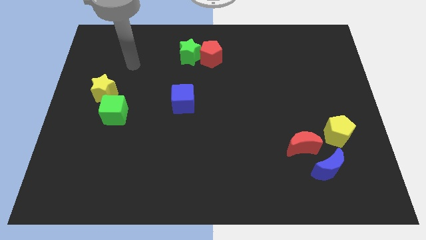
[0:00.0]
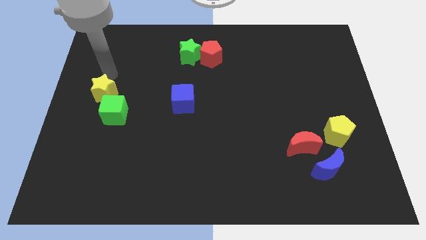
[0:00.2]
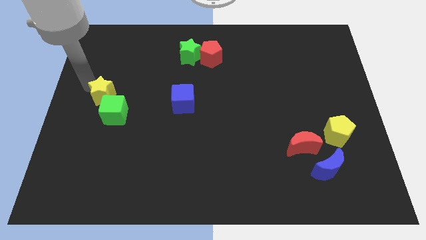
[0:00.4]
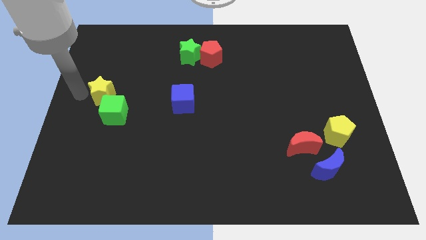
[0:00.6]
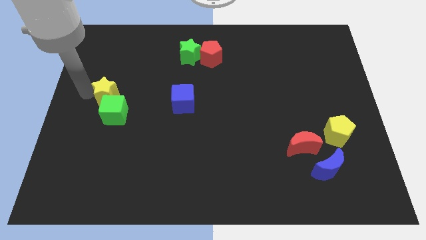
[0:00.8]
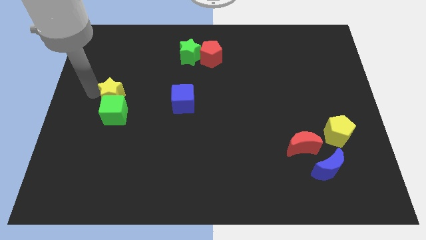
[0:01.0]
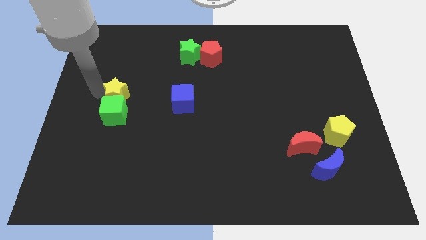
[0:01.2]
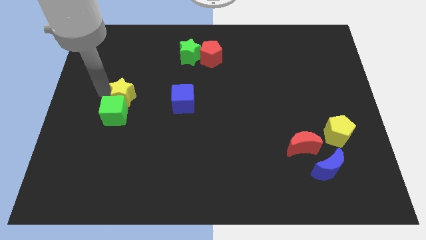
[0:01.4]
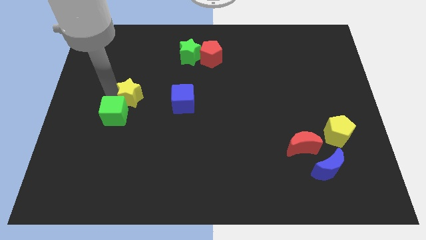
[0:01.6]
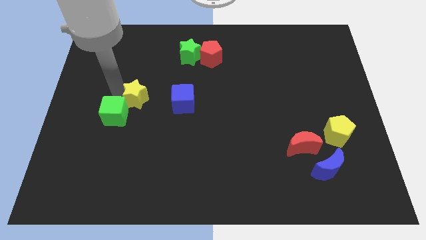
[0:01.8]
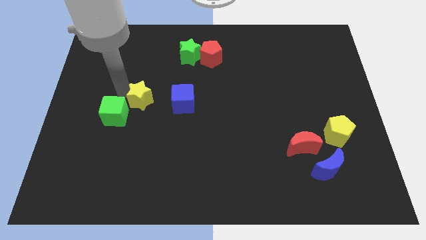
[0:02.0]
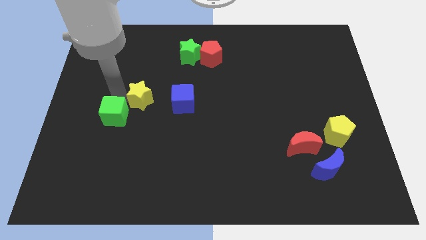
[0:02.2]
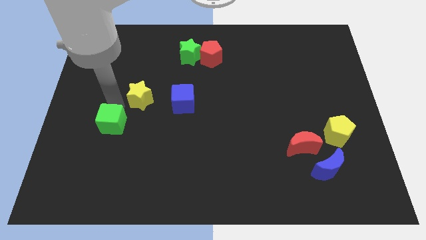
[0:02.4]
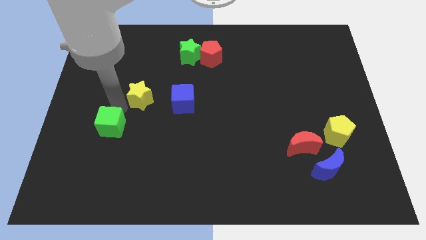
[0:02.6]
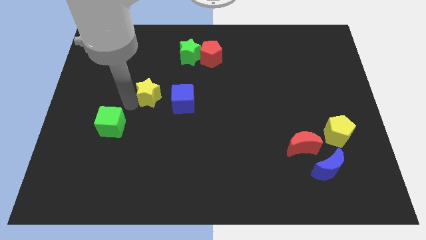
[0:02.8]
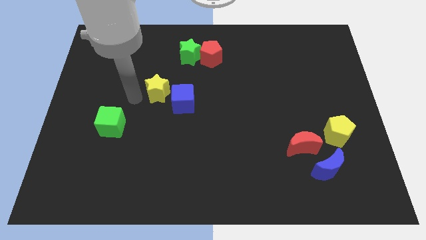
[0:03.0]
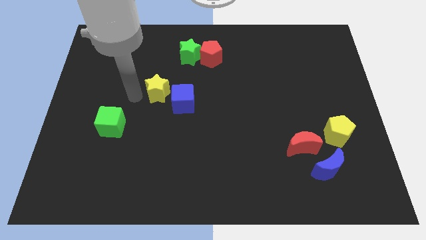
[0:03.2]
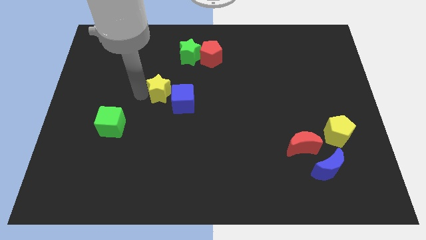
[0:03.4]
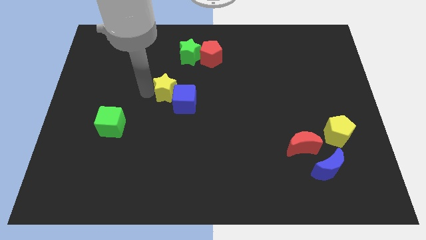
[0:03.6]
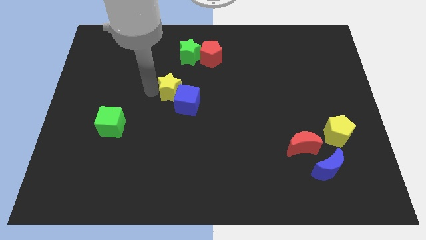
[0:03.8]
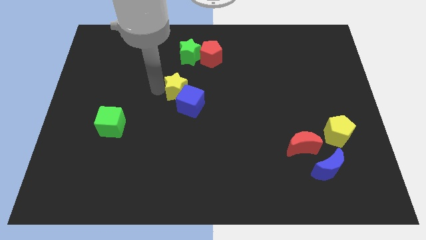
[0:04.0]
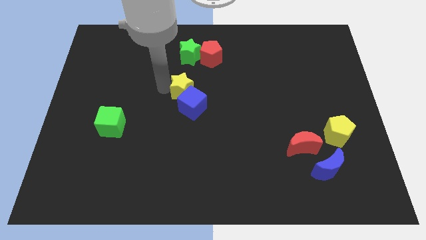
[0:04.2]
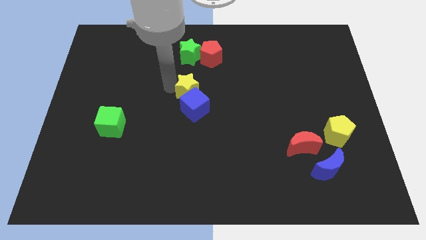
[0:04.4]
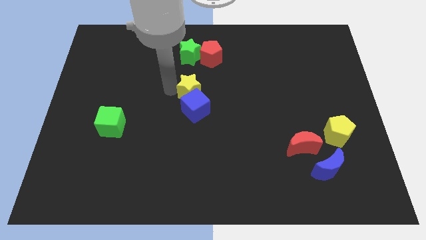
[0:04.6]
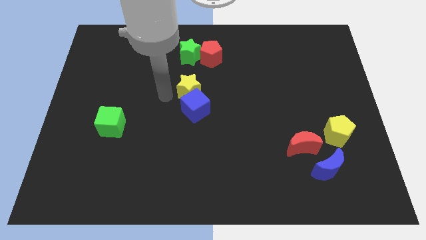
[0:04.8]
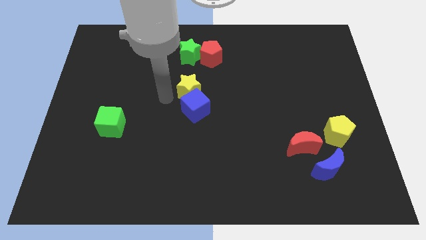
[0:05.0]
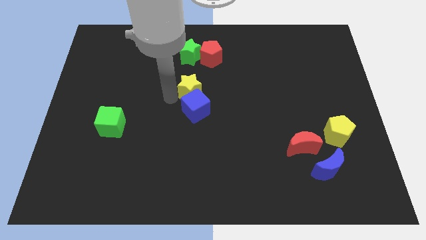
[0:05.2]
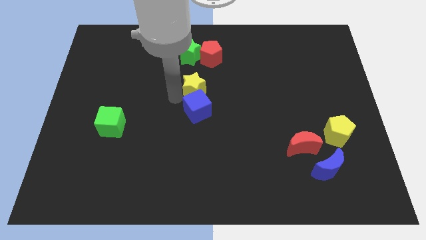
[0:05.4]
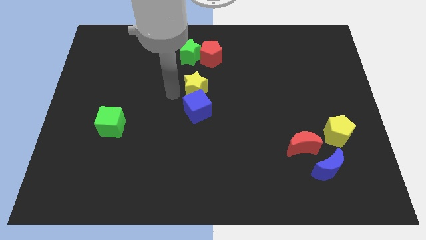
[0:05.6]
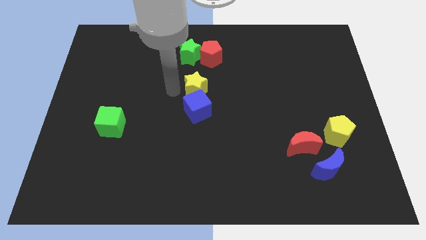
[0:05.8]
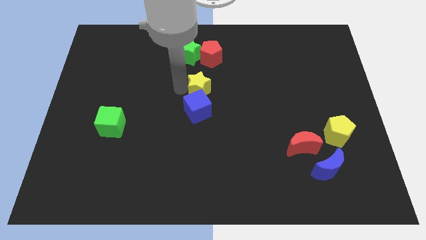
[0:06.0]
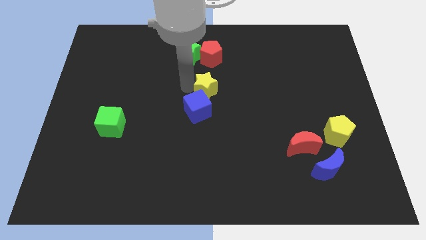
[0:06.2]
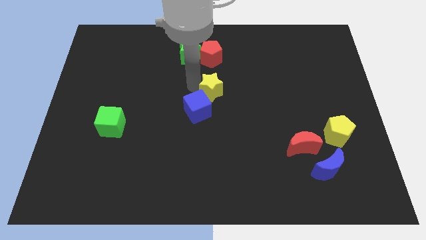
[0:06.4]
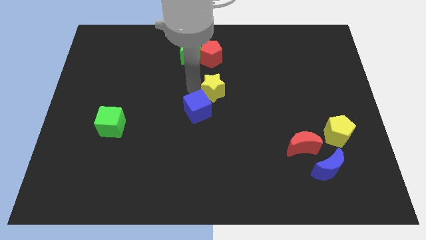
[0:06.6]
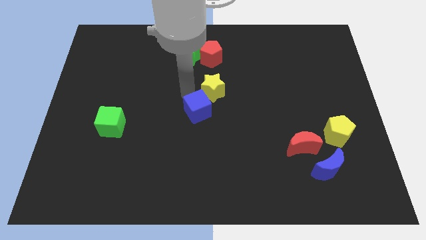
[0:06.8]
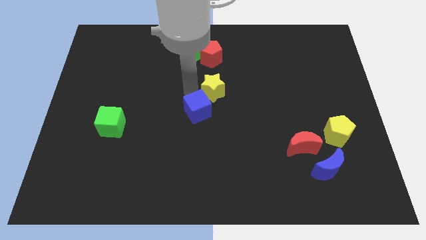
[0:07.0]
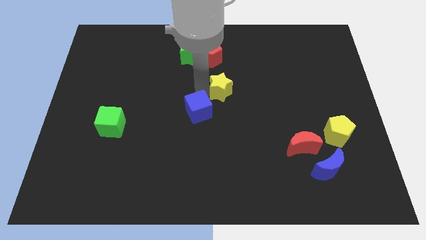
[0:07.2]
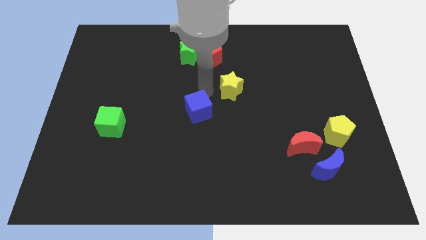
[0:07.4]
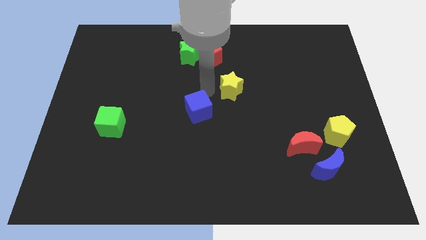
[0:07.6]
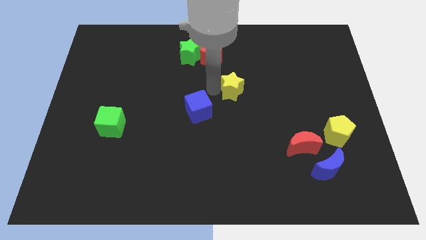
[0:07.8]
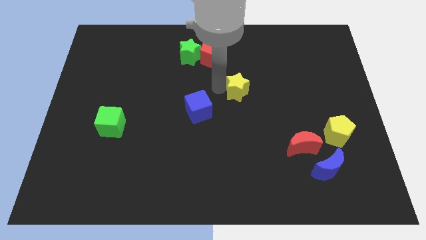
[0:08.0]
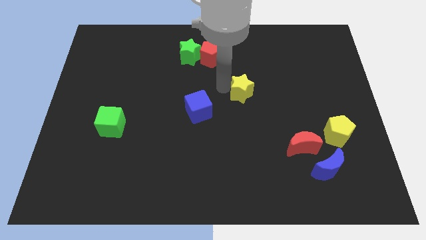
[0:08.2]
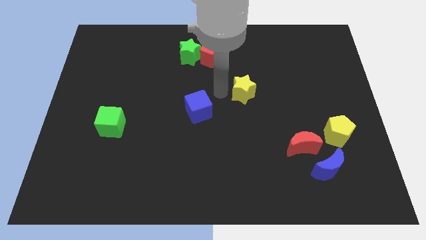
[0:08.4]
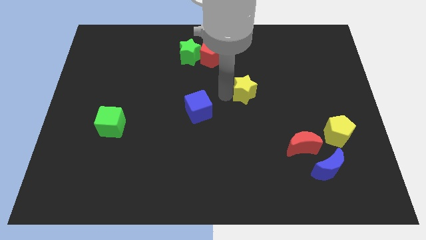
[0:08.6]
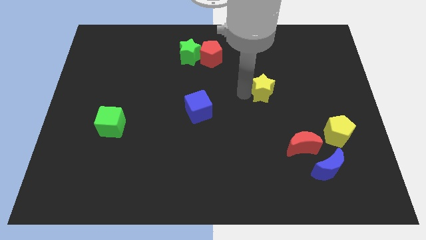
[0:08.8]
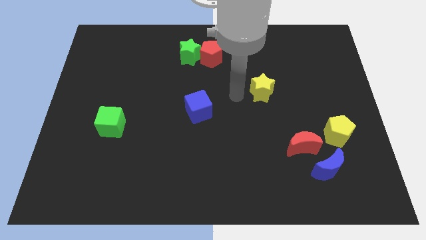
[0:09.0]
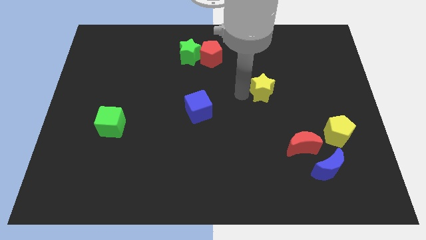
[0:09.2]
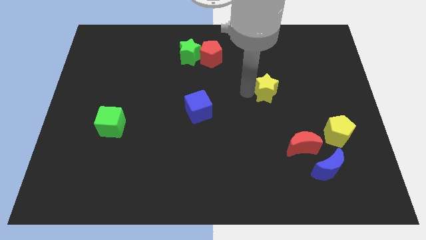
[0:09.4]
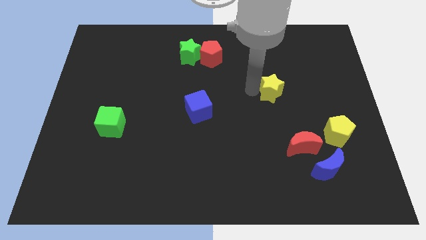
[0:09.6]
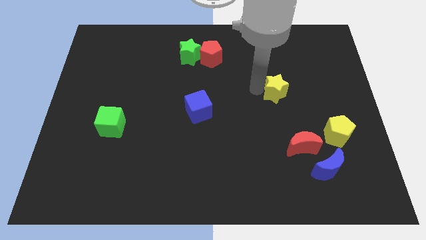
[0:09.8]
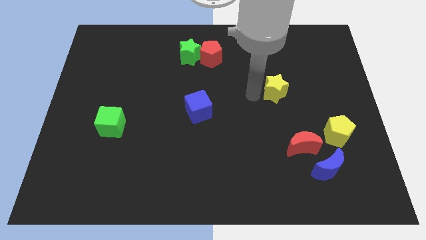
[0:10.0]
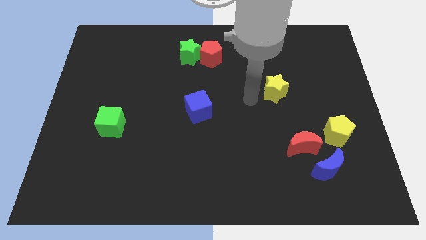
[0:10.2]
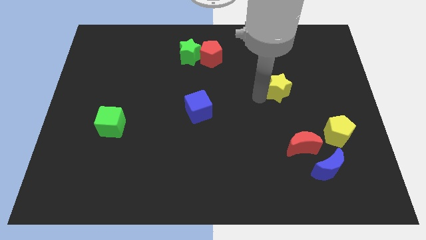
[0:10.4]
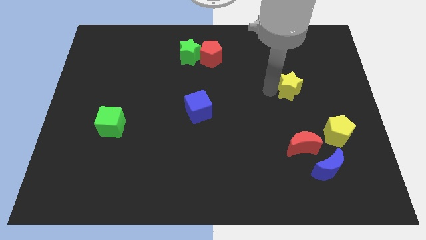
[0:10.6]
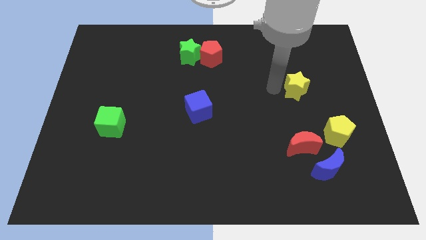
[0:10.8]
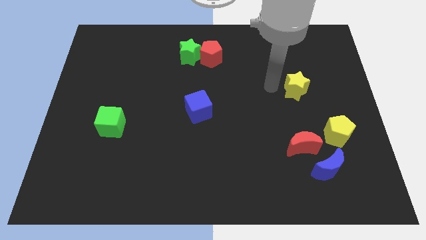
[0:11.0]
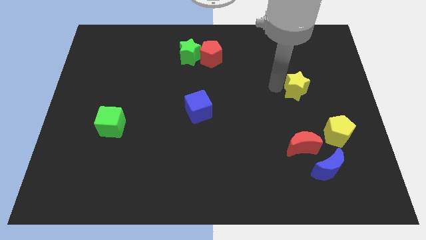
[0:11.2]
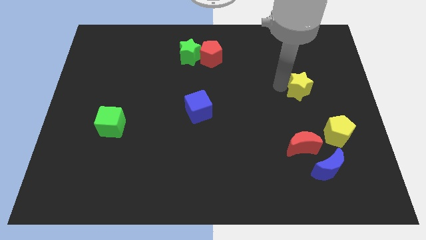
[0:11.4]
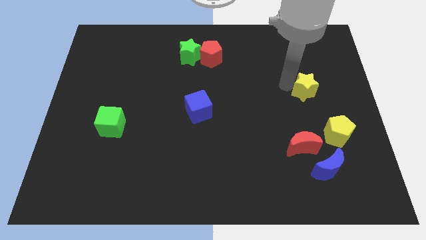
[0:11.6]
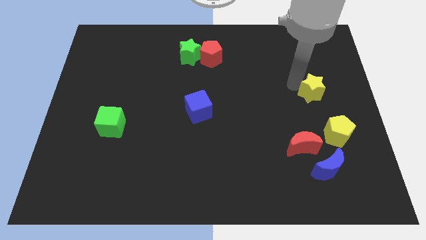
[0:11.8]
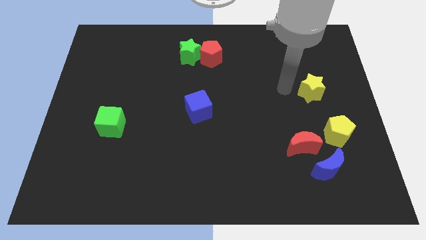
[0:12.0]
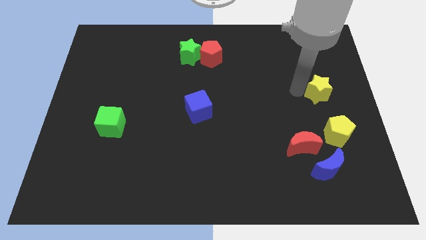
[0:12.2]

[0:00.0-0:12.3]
slide the yellow star to the right side of the board

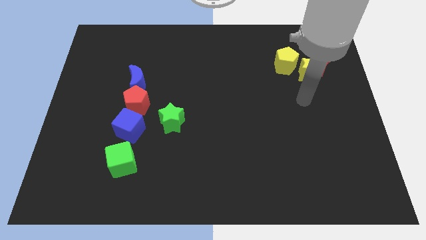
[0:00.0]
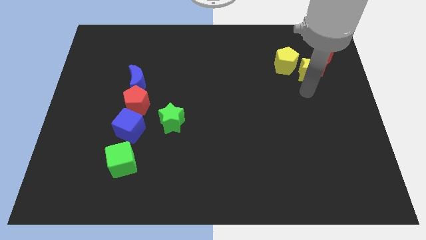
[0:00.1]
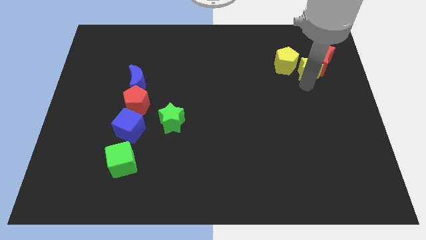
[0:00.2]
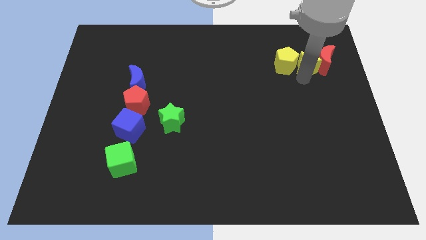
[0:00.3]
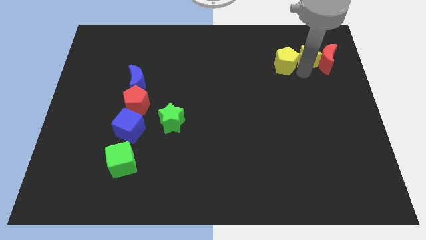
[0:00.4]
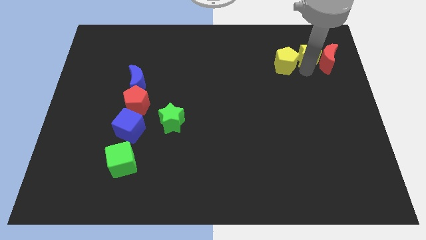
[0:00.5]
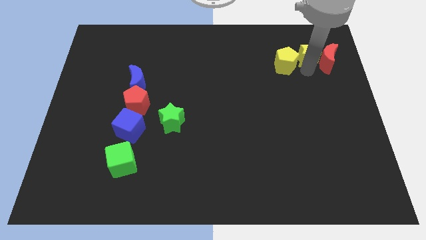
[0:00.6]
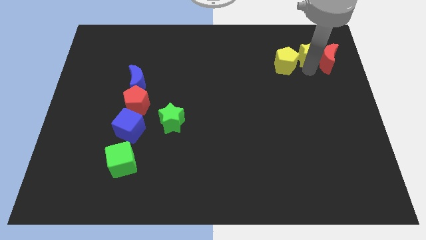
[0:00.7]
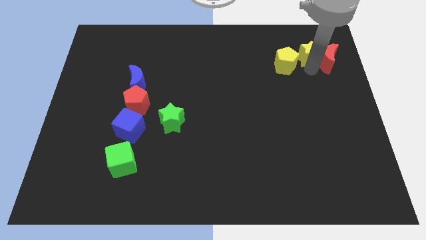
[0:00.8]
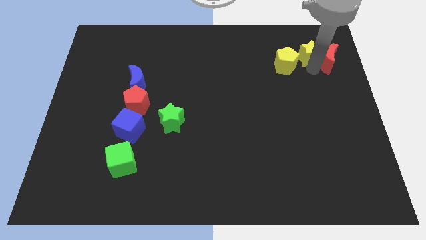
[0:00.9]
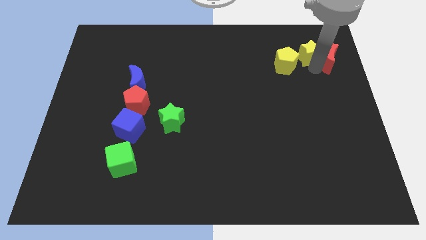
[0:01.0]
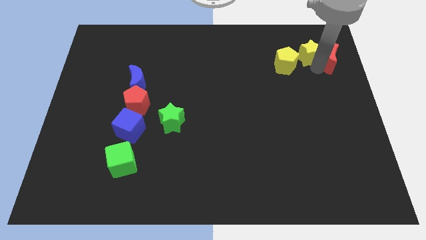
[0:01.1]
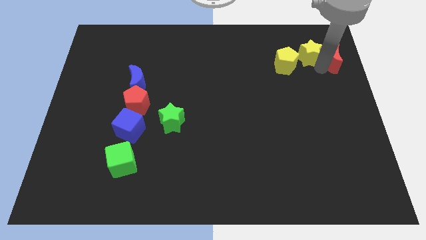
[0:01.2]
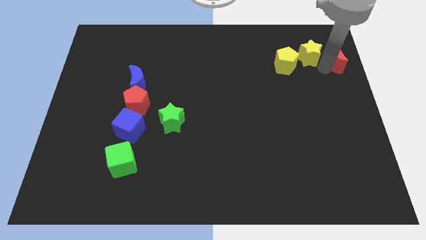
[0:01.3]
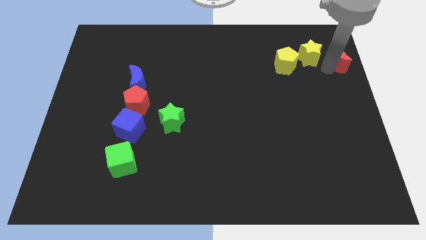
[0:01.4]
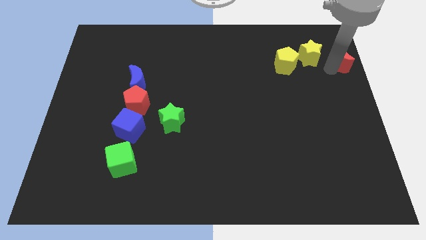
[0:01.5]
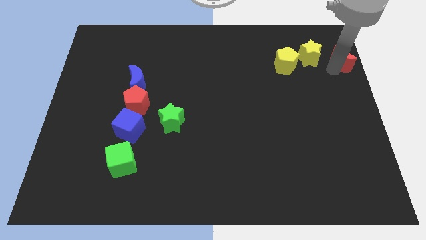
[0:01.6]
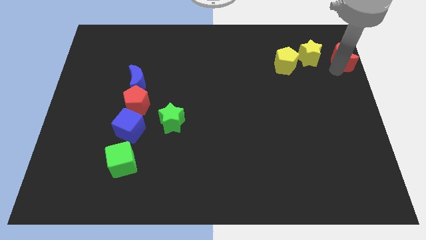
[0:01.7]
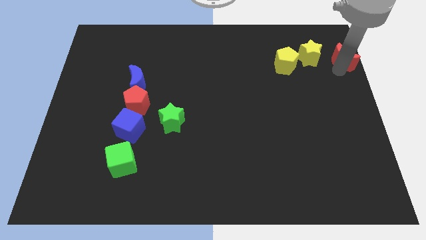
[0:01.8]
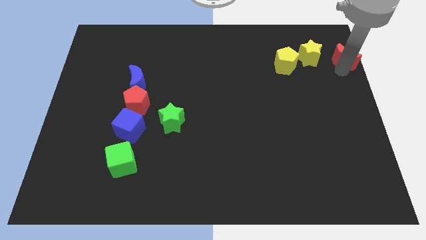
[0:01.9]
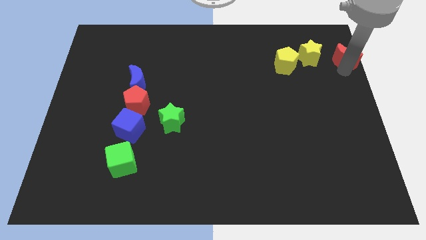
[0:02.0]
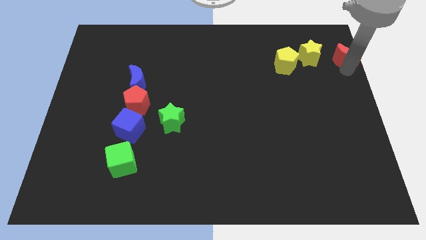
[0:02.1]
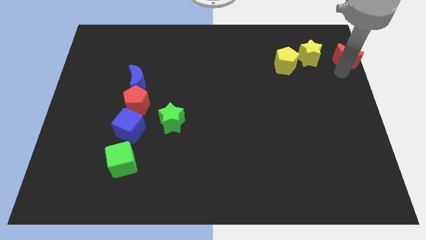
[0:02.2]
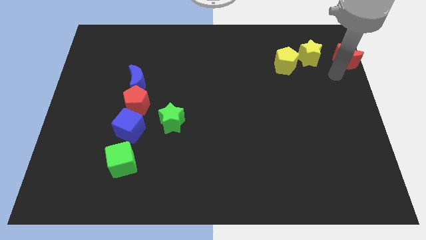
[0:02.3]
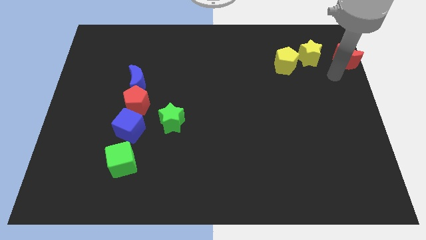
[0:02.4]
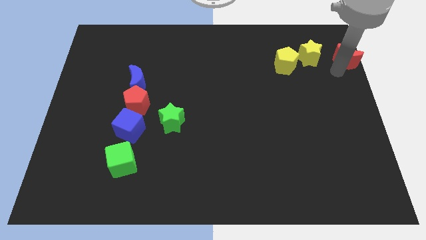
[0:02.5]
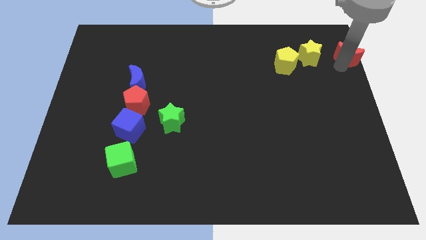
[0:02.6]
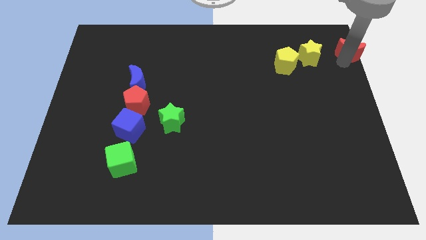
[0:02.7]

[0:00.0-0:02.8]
slide the red moon to the upper right corner
